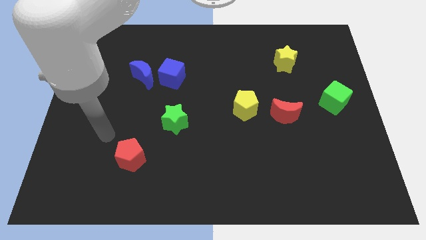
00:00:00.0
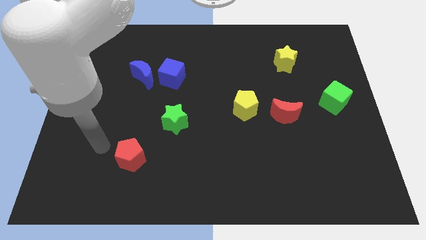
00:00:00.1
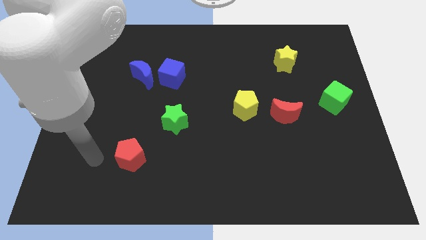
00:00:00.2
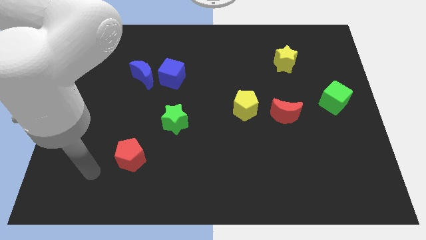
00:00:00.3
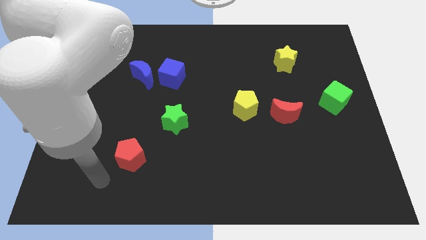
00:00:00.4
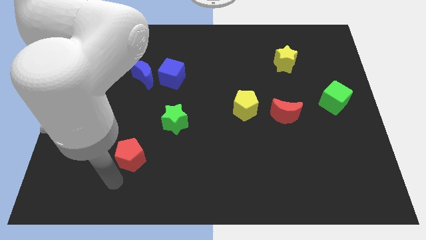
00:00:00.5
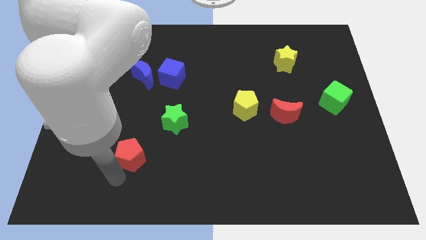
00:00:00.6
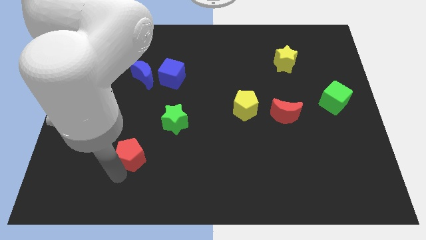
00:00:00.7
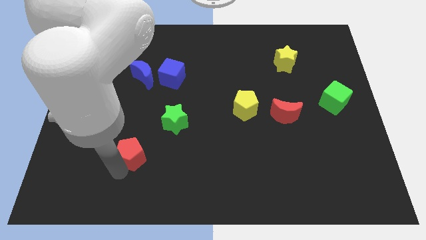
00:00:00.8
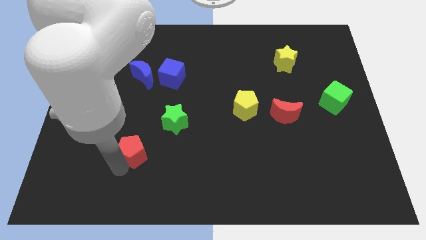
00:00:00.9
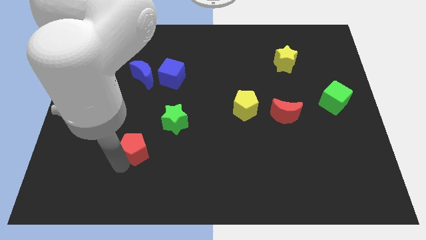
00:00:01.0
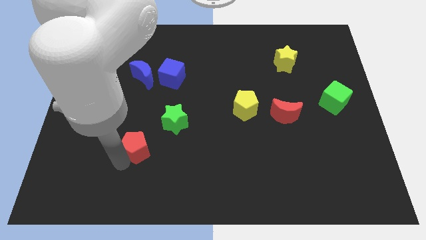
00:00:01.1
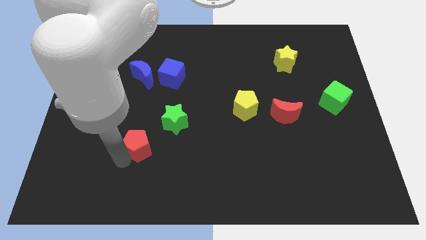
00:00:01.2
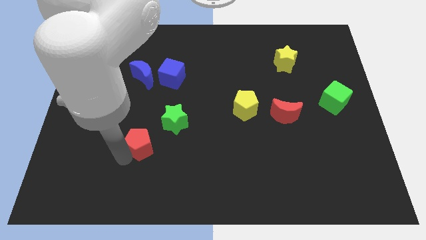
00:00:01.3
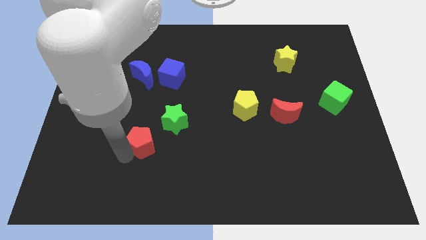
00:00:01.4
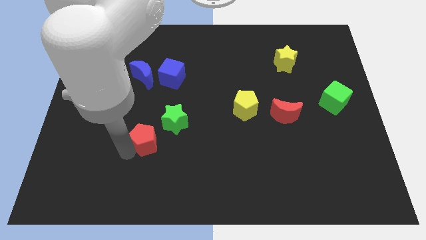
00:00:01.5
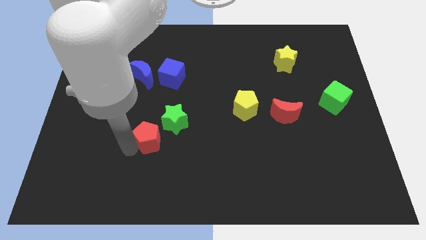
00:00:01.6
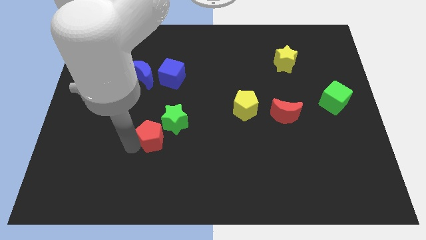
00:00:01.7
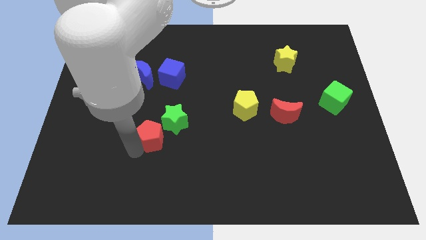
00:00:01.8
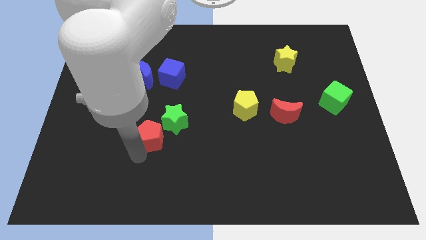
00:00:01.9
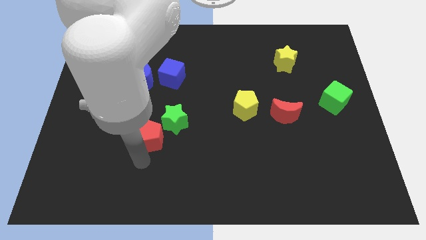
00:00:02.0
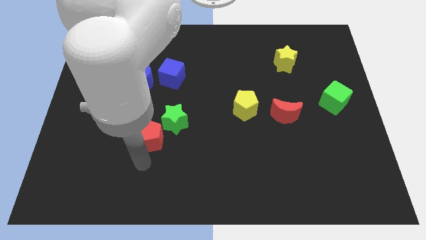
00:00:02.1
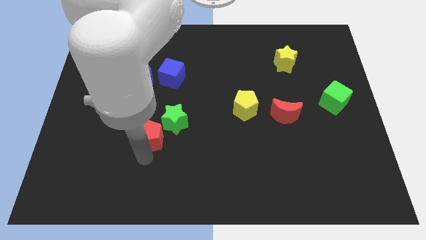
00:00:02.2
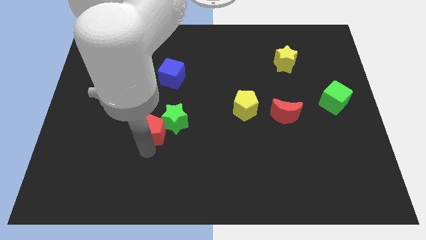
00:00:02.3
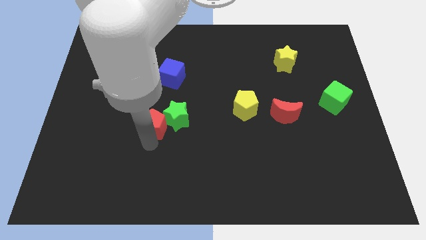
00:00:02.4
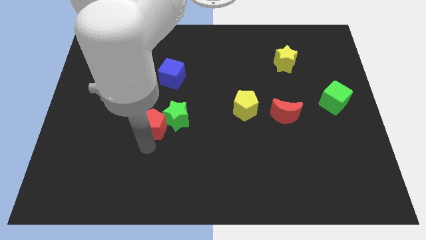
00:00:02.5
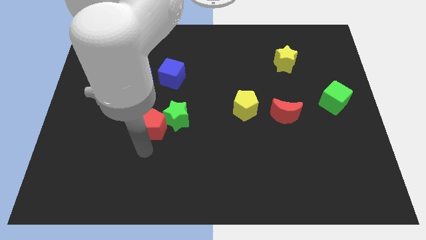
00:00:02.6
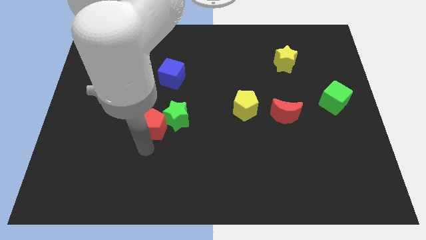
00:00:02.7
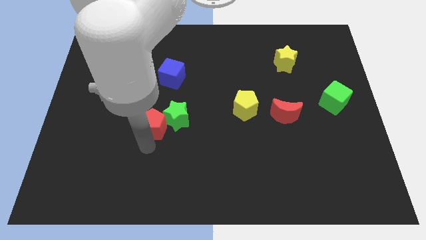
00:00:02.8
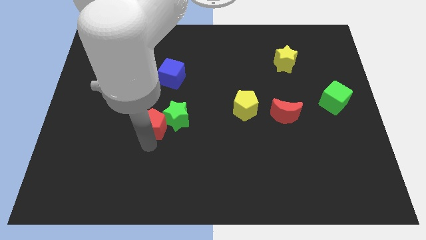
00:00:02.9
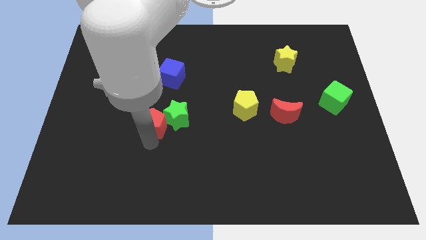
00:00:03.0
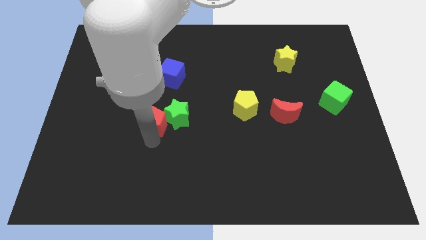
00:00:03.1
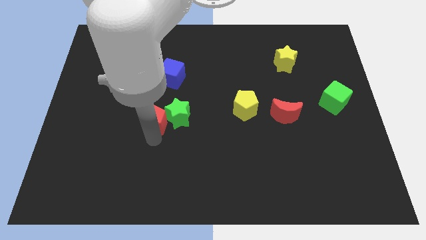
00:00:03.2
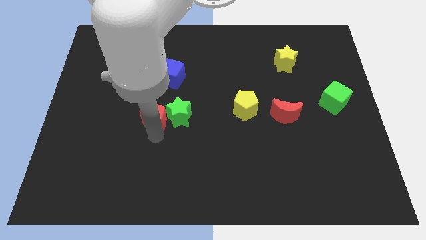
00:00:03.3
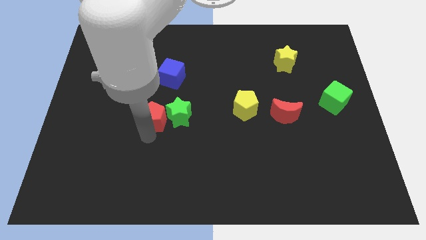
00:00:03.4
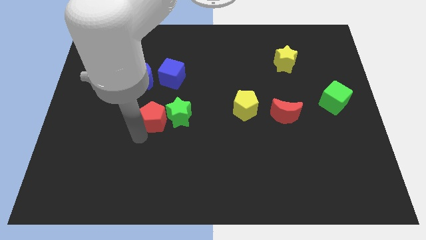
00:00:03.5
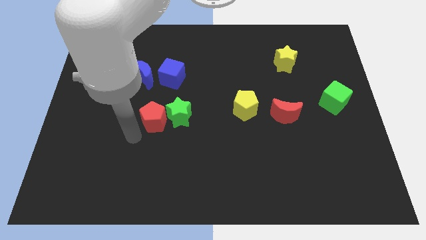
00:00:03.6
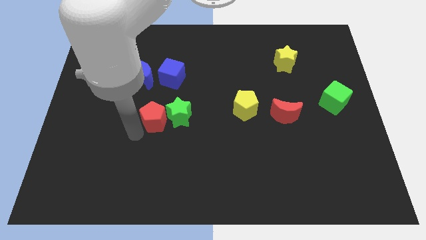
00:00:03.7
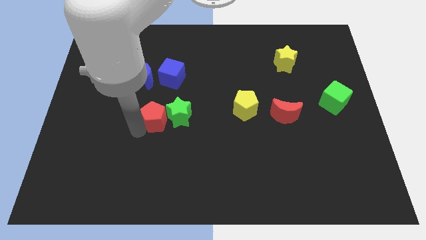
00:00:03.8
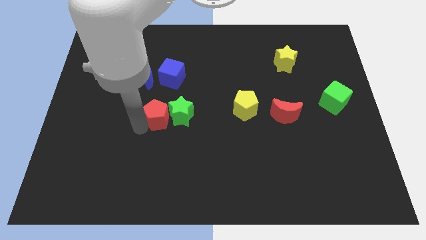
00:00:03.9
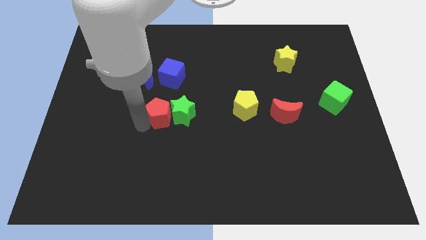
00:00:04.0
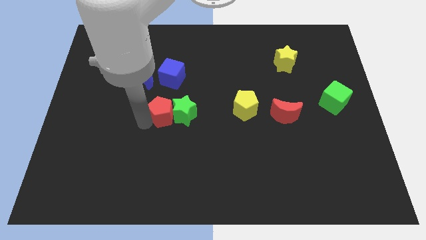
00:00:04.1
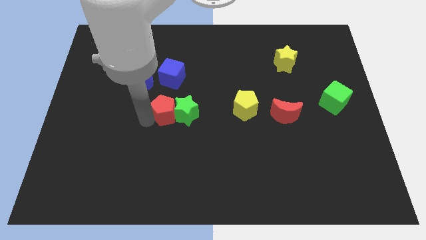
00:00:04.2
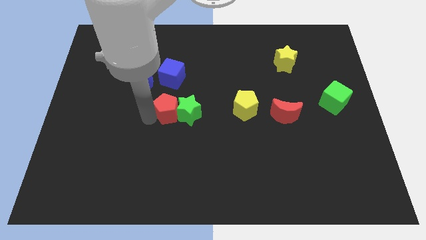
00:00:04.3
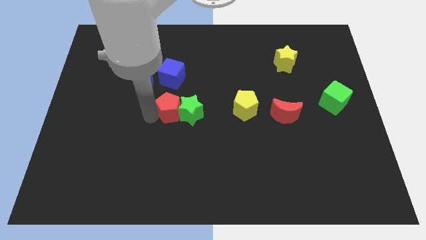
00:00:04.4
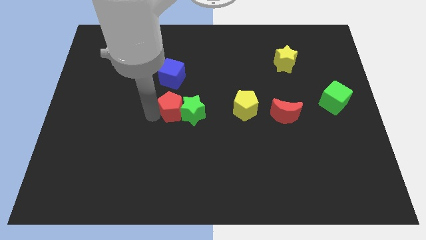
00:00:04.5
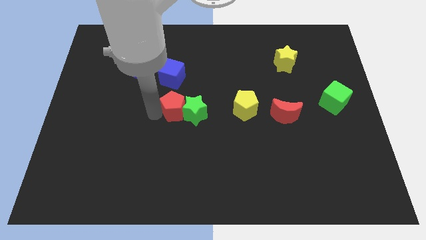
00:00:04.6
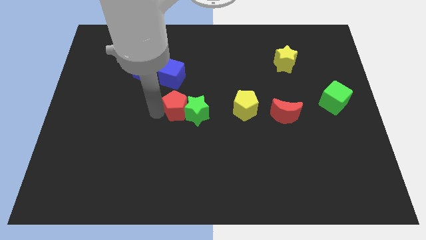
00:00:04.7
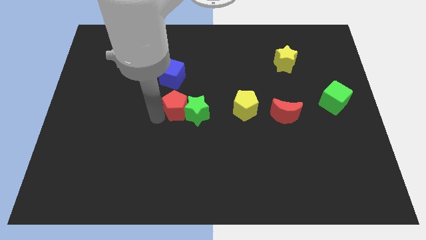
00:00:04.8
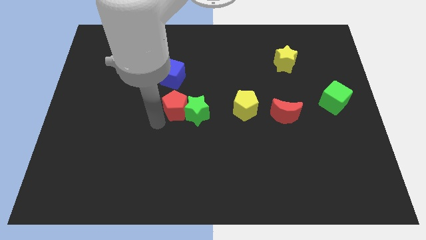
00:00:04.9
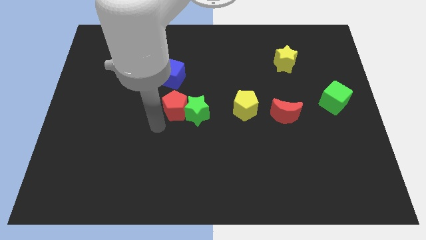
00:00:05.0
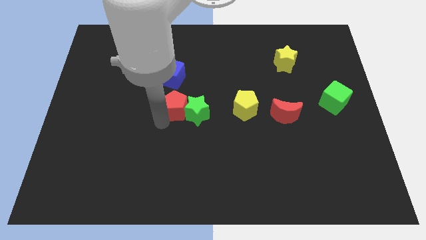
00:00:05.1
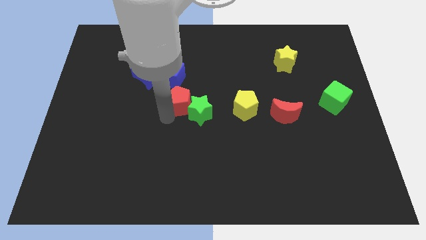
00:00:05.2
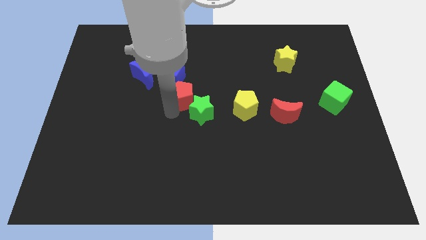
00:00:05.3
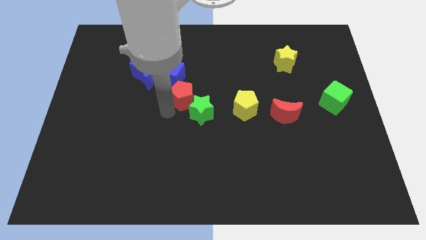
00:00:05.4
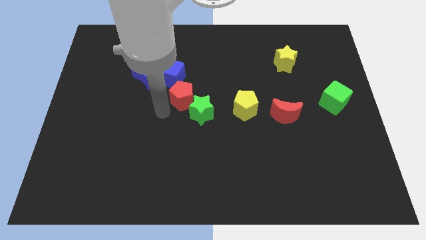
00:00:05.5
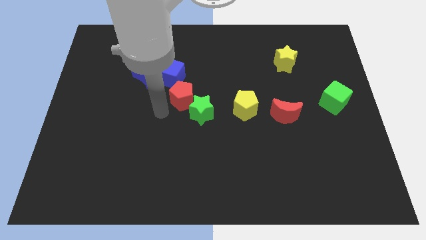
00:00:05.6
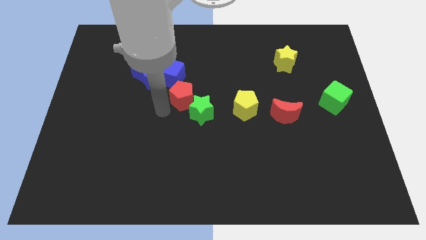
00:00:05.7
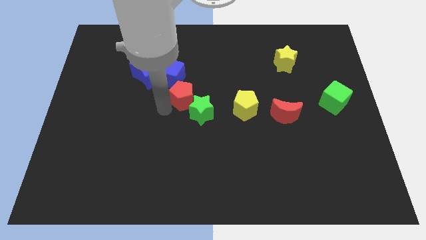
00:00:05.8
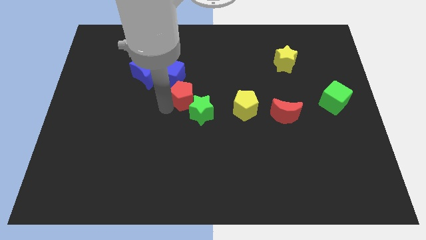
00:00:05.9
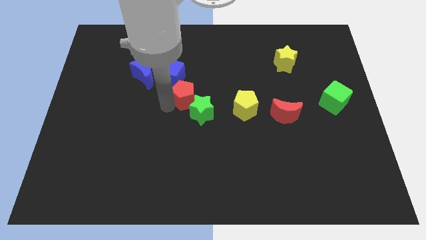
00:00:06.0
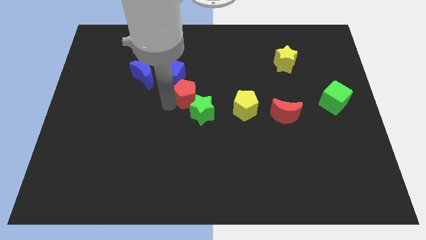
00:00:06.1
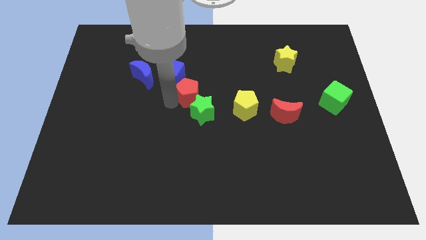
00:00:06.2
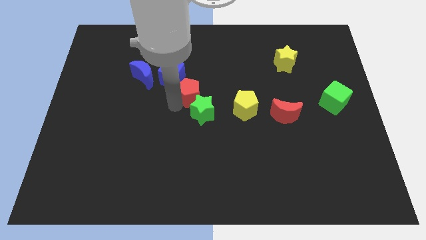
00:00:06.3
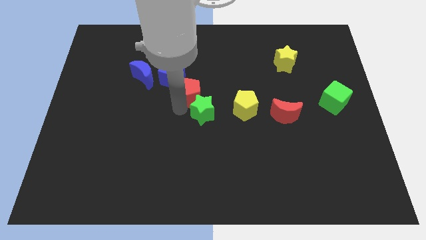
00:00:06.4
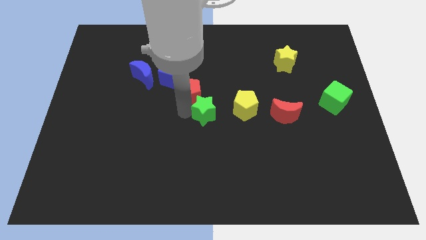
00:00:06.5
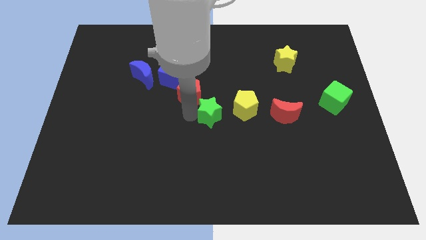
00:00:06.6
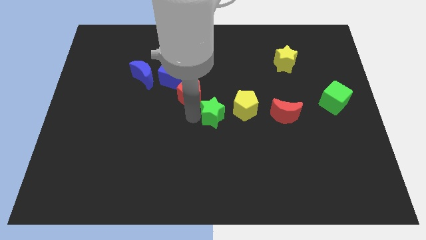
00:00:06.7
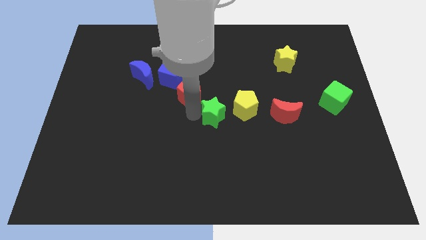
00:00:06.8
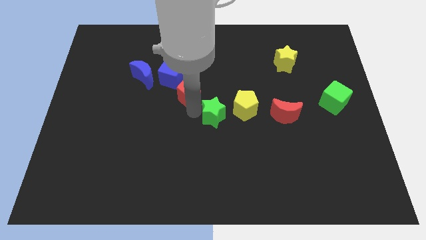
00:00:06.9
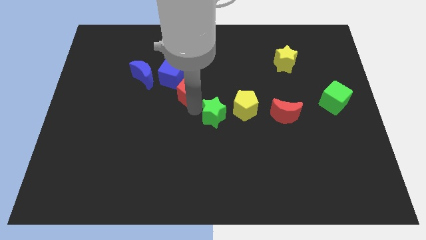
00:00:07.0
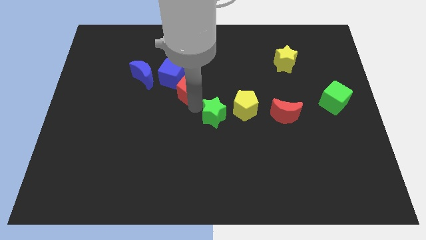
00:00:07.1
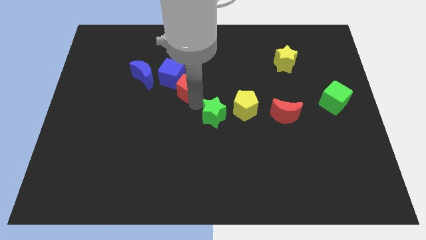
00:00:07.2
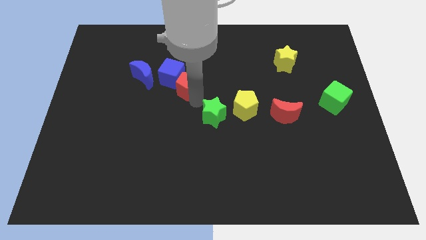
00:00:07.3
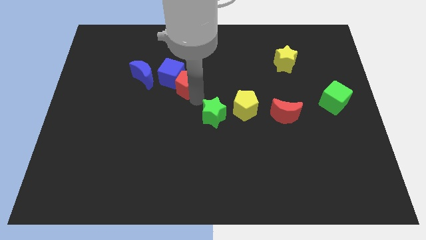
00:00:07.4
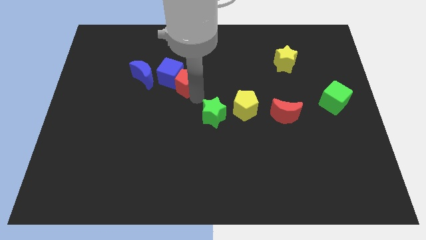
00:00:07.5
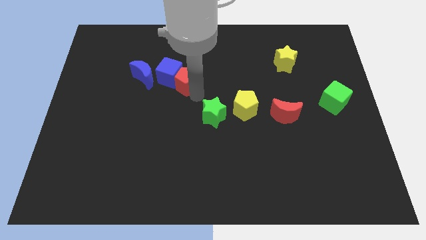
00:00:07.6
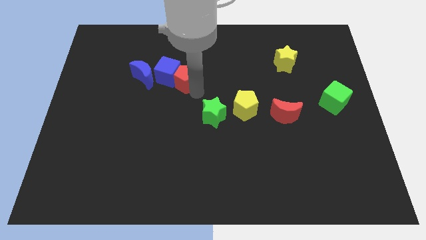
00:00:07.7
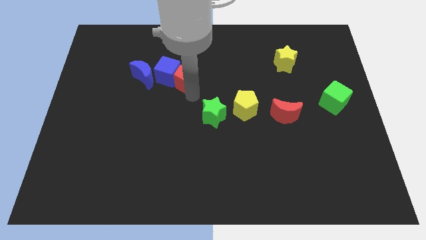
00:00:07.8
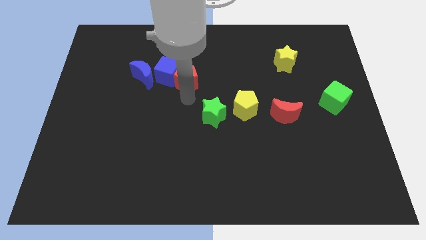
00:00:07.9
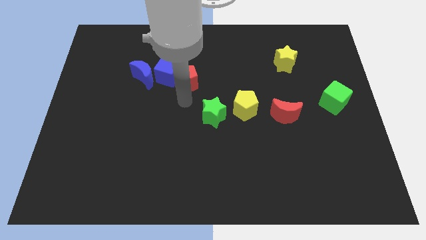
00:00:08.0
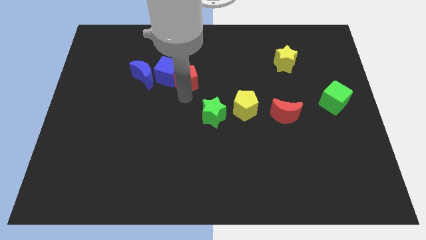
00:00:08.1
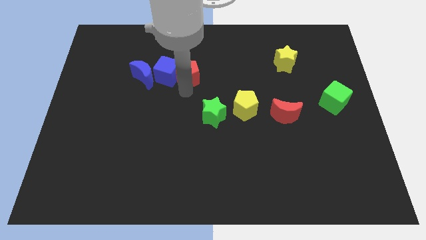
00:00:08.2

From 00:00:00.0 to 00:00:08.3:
slide the red pentagon to the top right of the blue cube
